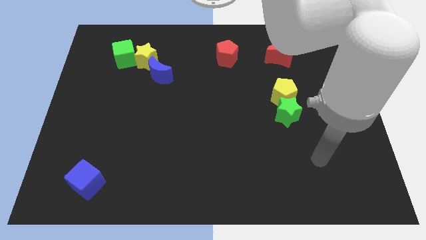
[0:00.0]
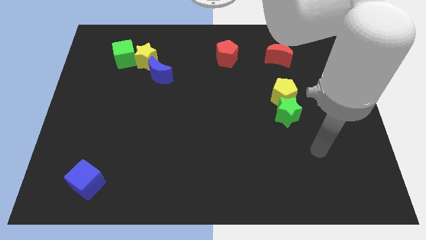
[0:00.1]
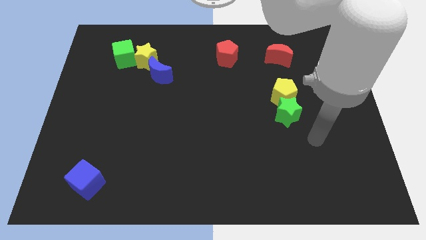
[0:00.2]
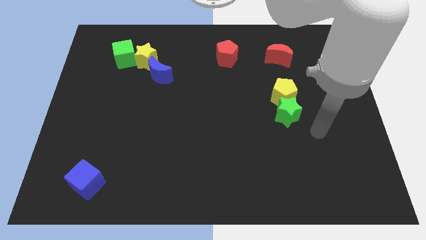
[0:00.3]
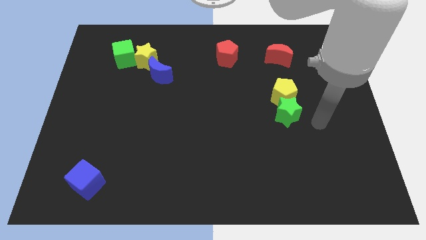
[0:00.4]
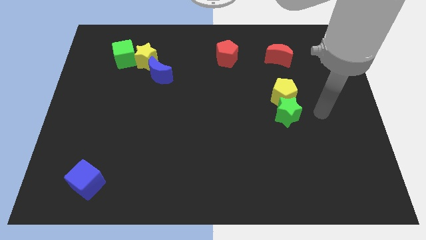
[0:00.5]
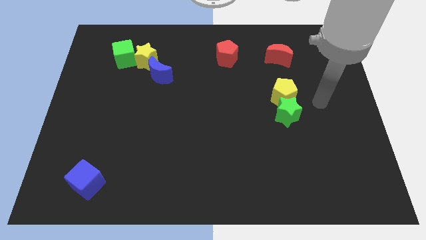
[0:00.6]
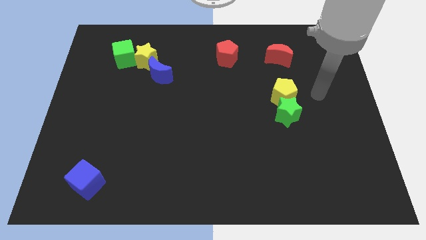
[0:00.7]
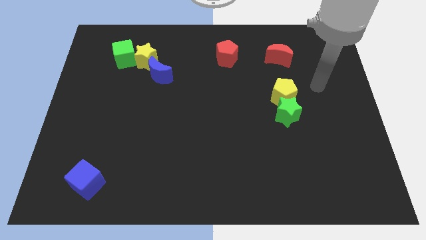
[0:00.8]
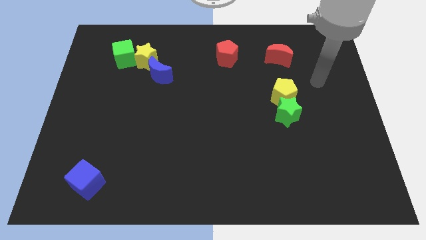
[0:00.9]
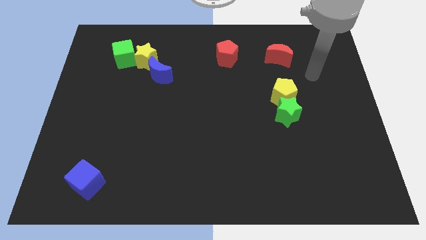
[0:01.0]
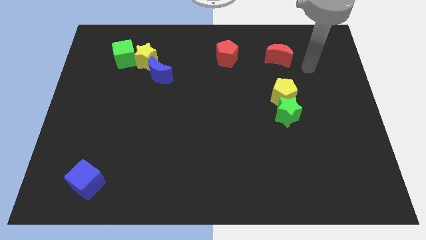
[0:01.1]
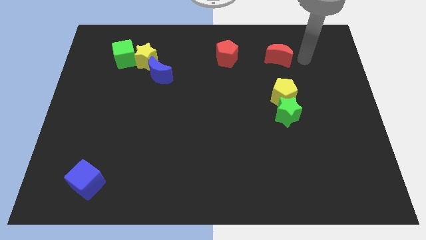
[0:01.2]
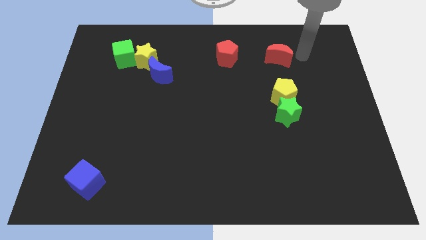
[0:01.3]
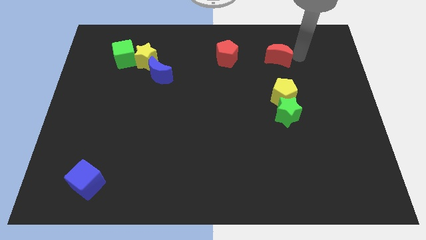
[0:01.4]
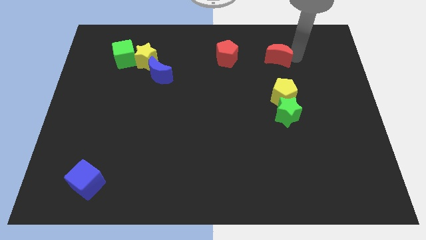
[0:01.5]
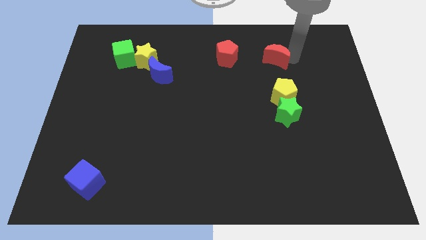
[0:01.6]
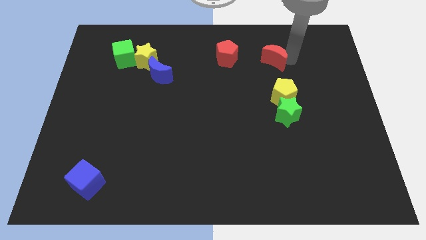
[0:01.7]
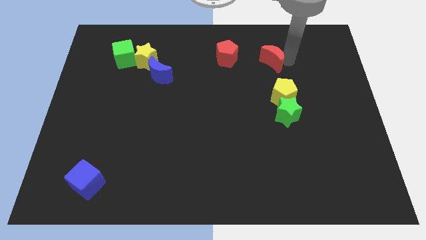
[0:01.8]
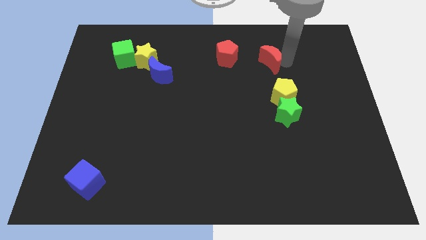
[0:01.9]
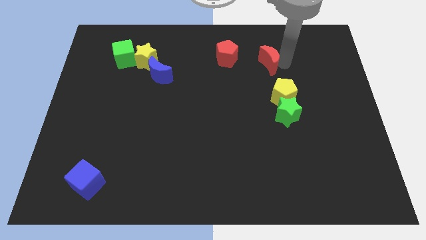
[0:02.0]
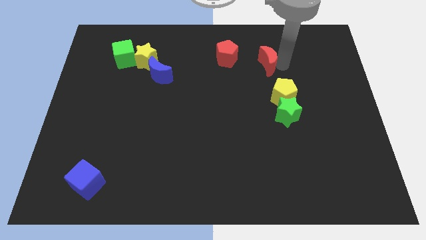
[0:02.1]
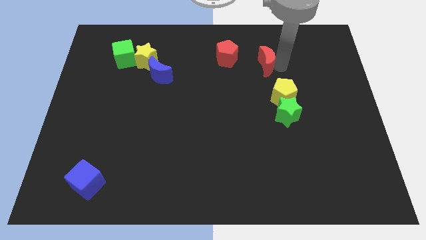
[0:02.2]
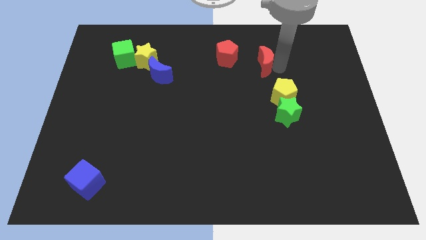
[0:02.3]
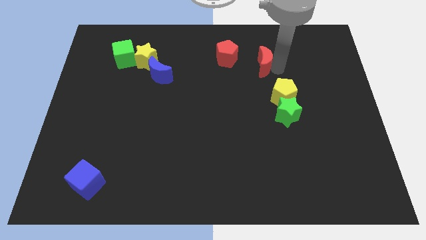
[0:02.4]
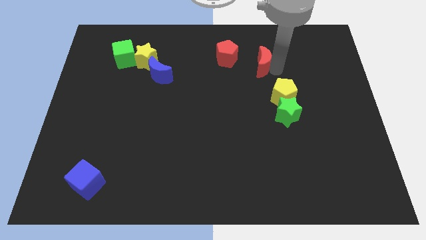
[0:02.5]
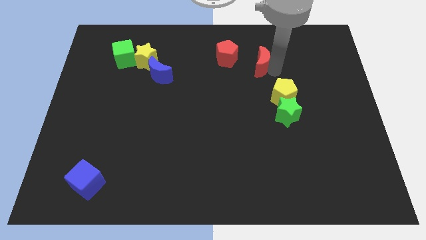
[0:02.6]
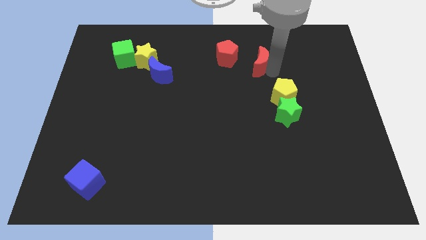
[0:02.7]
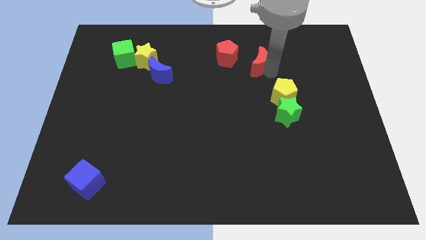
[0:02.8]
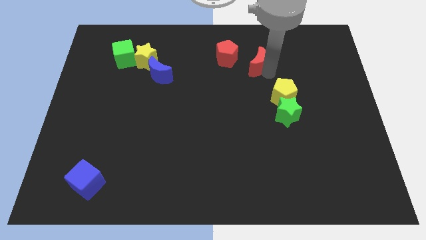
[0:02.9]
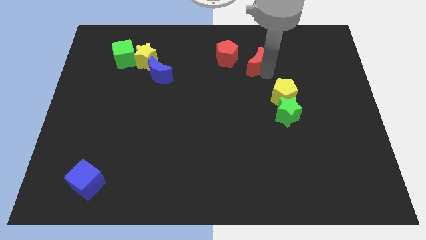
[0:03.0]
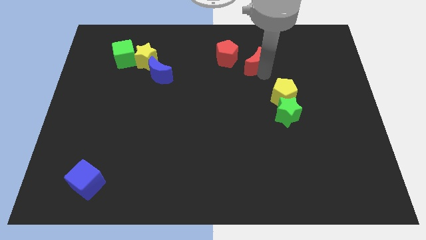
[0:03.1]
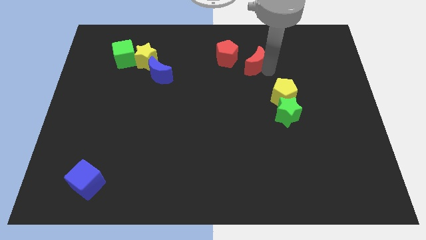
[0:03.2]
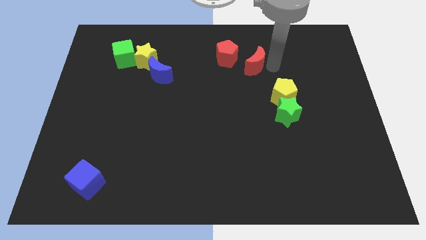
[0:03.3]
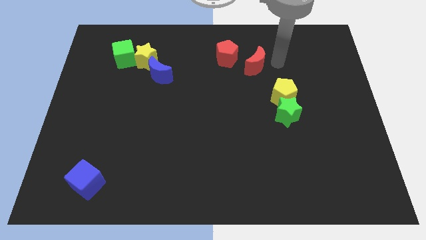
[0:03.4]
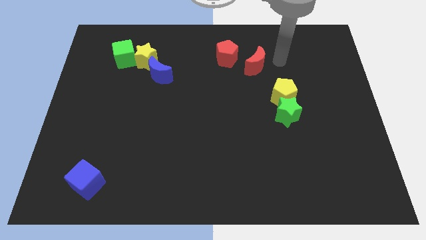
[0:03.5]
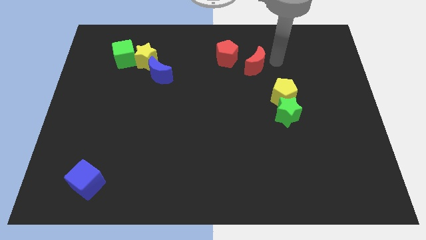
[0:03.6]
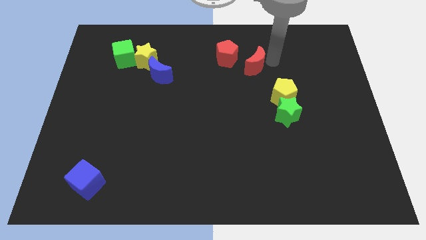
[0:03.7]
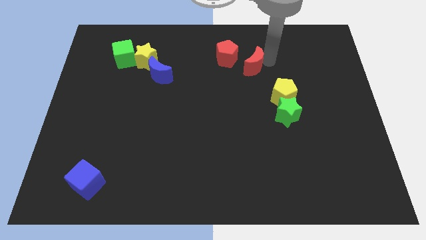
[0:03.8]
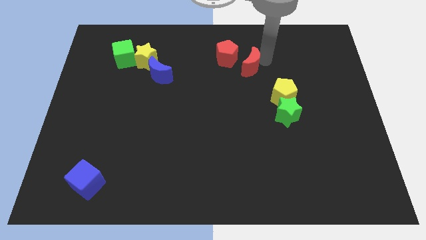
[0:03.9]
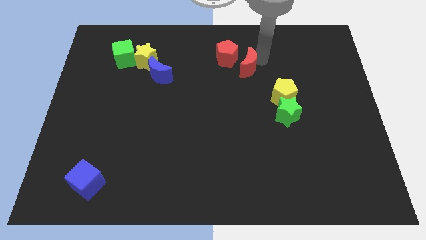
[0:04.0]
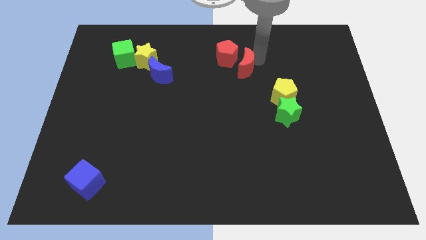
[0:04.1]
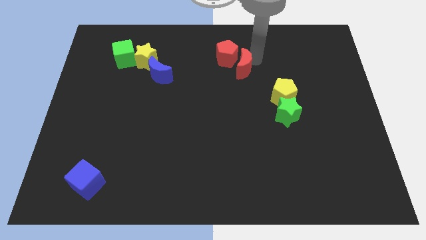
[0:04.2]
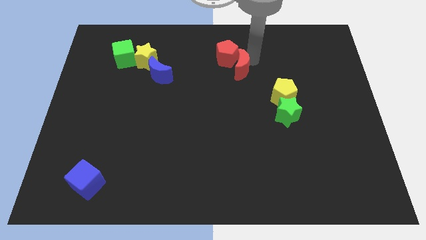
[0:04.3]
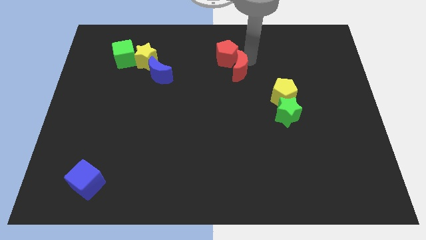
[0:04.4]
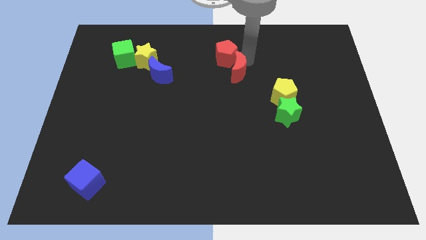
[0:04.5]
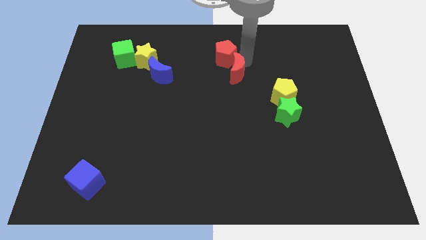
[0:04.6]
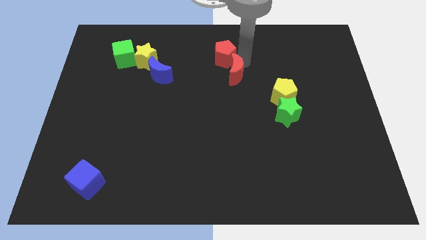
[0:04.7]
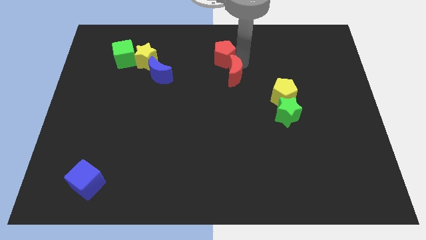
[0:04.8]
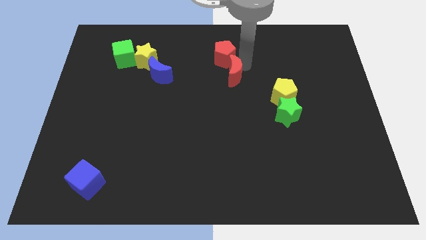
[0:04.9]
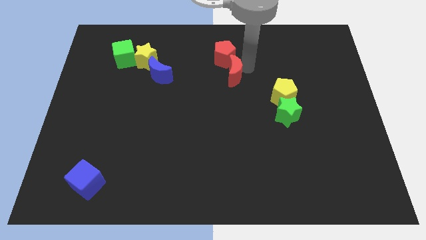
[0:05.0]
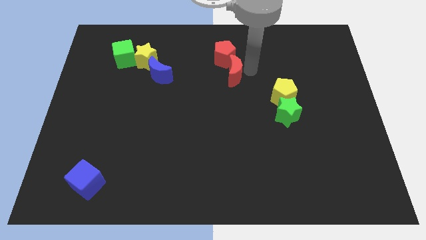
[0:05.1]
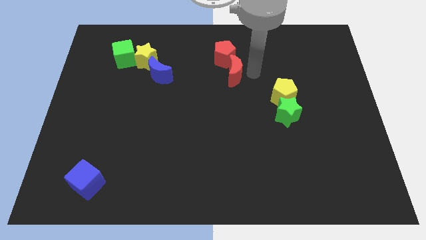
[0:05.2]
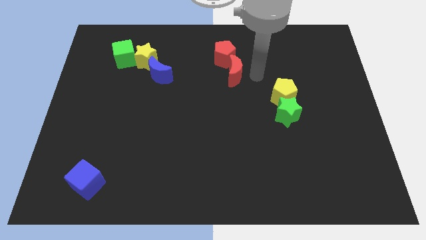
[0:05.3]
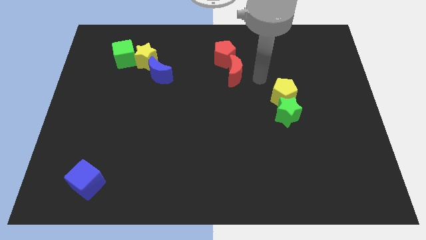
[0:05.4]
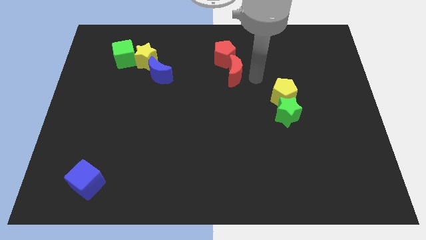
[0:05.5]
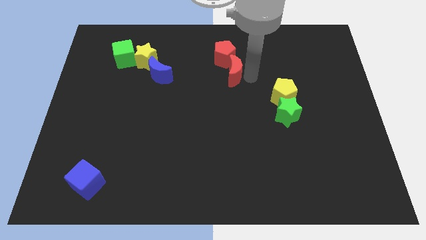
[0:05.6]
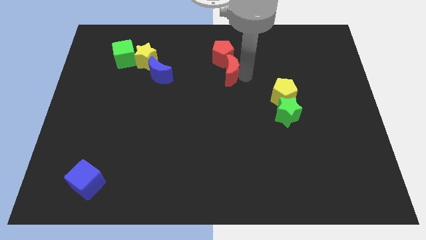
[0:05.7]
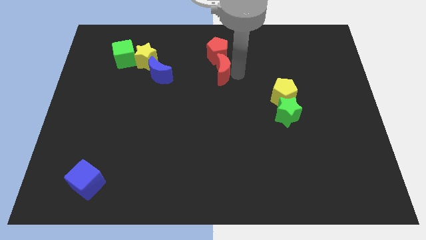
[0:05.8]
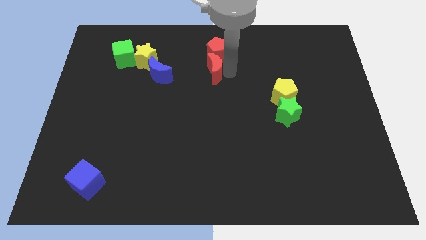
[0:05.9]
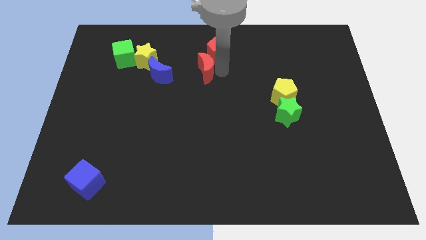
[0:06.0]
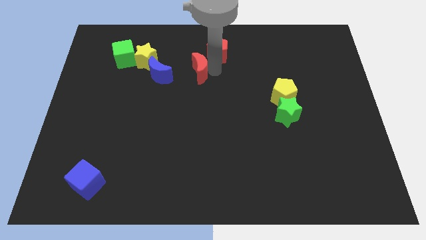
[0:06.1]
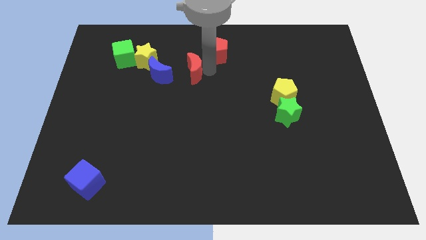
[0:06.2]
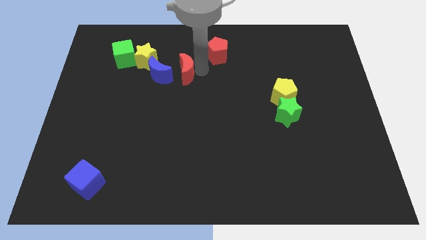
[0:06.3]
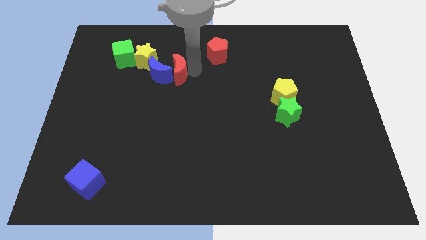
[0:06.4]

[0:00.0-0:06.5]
slide the red moon close to the blue moon

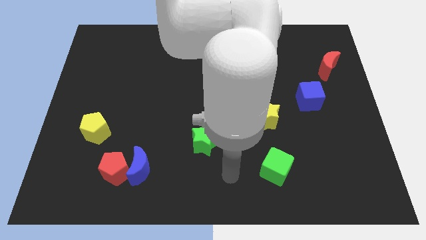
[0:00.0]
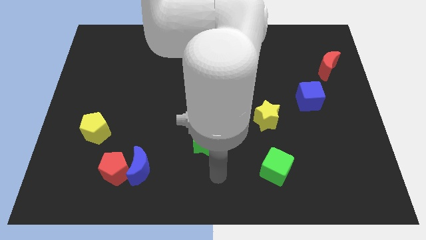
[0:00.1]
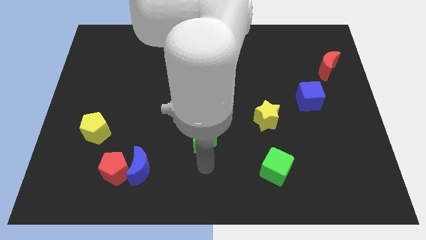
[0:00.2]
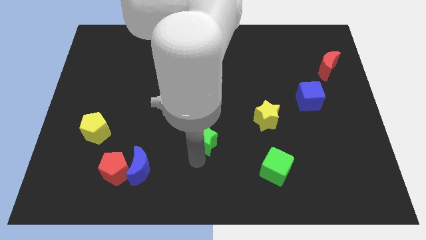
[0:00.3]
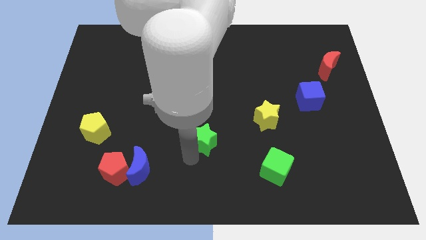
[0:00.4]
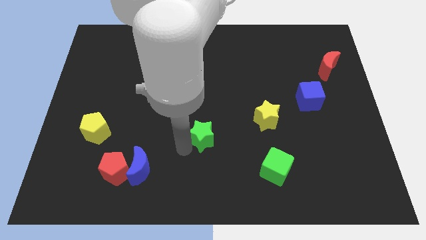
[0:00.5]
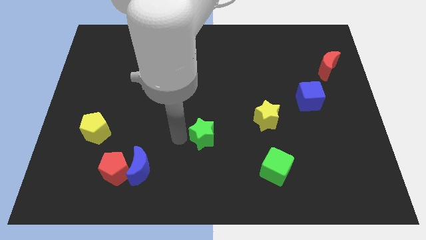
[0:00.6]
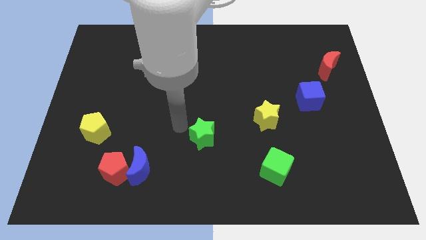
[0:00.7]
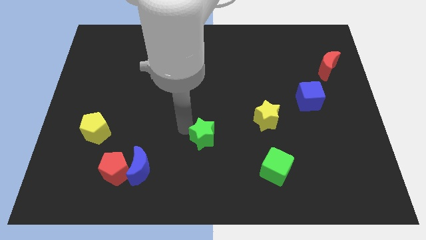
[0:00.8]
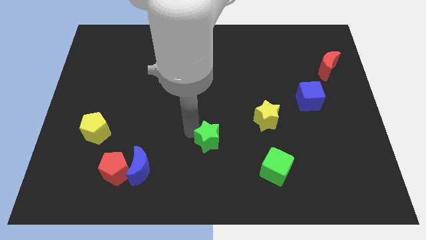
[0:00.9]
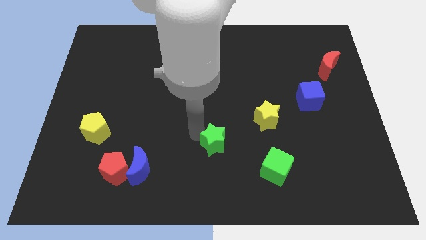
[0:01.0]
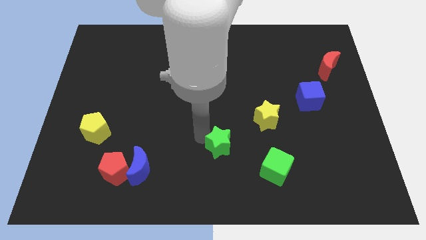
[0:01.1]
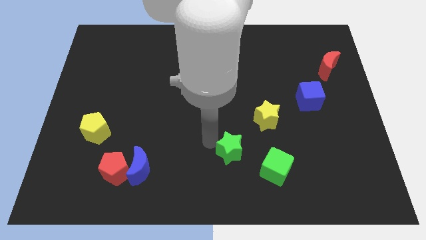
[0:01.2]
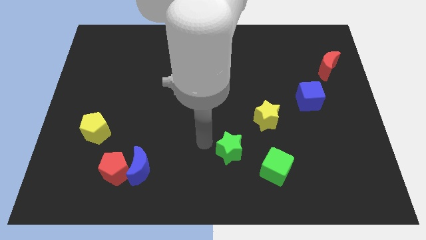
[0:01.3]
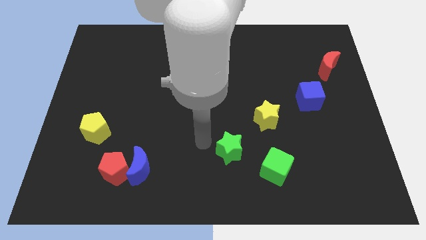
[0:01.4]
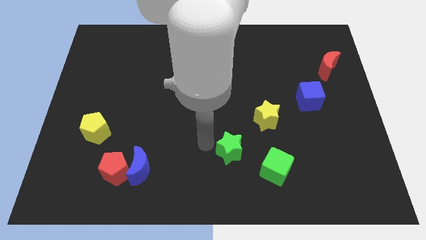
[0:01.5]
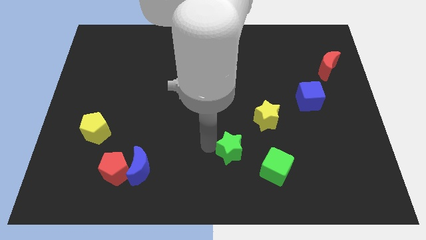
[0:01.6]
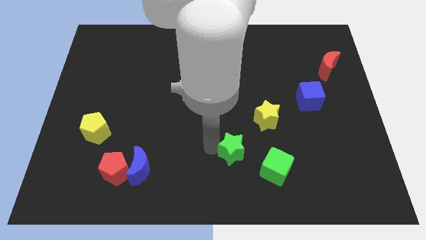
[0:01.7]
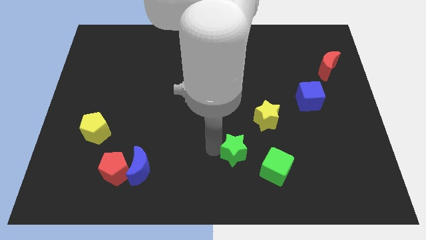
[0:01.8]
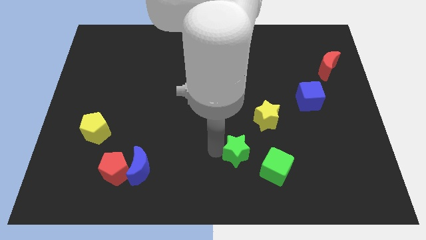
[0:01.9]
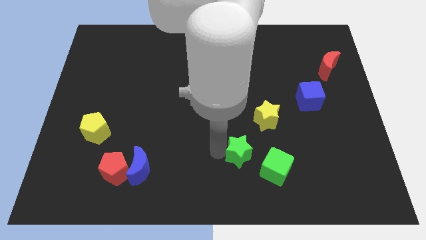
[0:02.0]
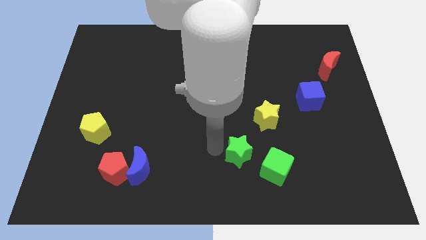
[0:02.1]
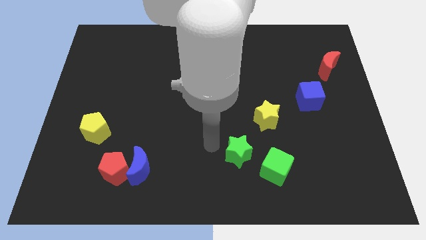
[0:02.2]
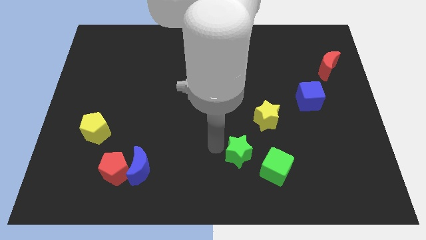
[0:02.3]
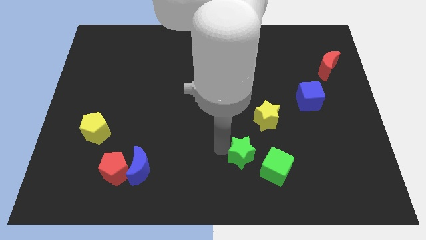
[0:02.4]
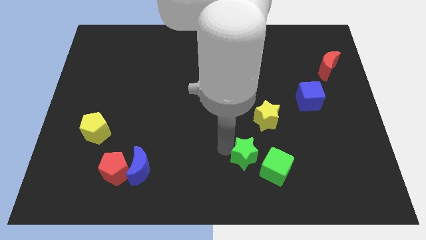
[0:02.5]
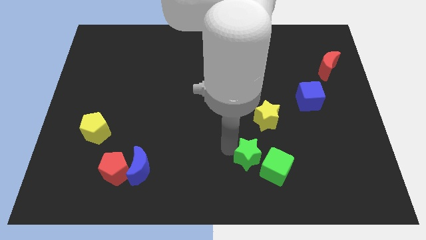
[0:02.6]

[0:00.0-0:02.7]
push the green star close to the green cube
